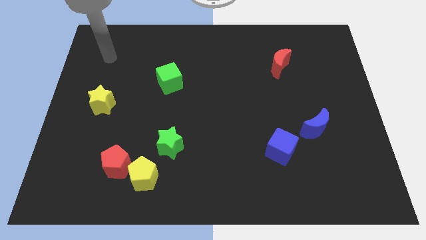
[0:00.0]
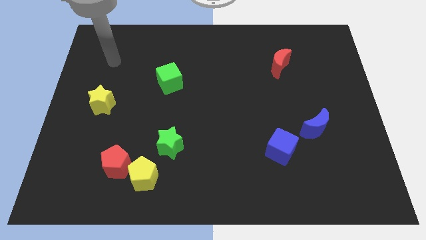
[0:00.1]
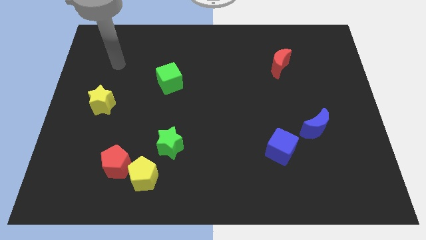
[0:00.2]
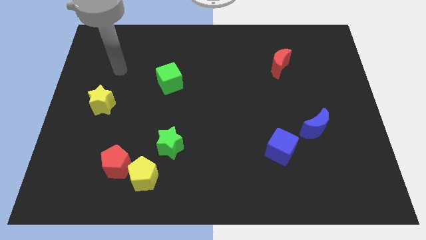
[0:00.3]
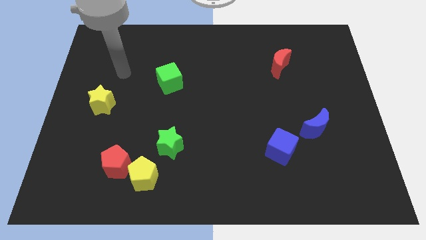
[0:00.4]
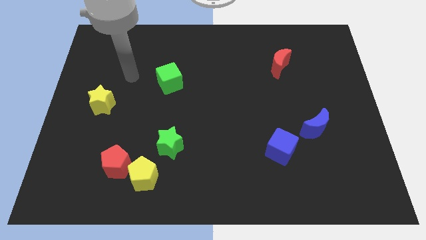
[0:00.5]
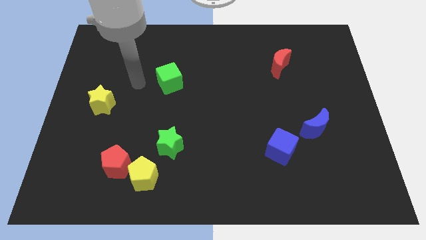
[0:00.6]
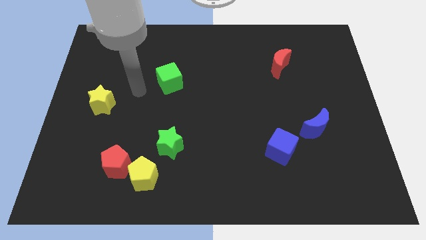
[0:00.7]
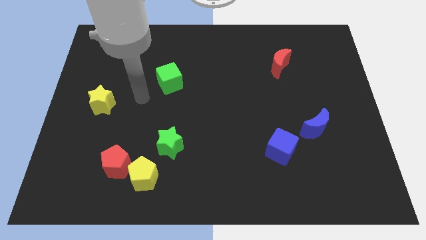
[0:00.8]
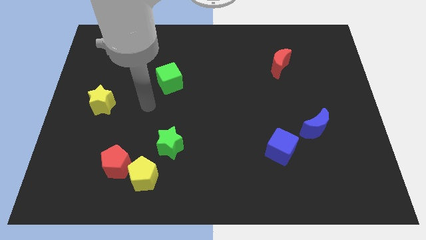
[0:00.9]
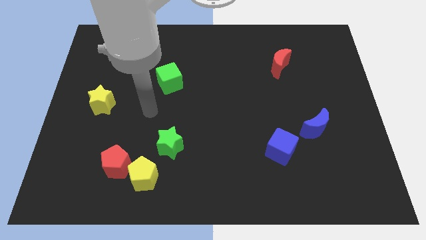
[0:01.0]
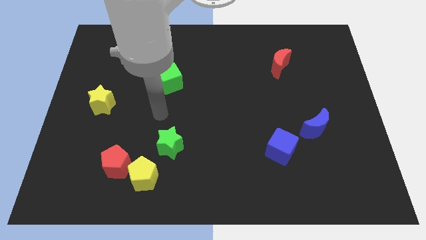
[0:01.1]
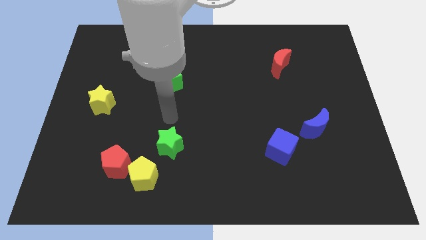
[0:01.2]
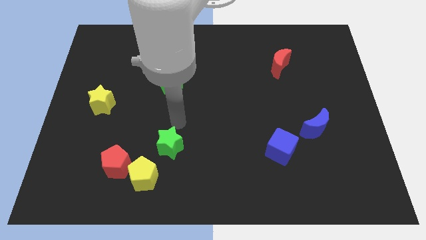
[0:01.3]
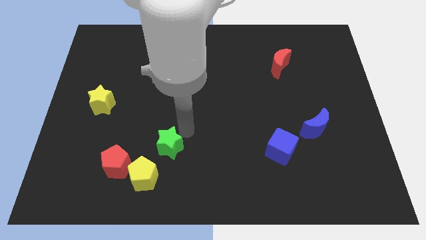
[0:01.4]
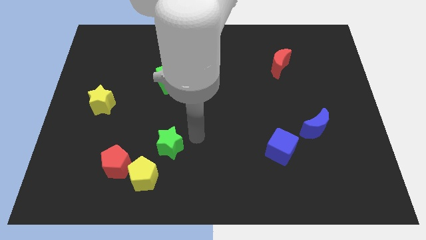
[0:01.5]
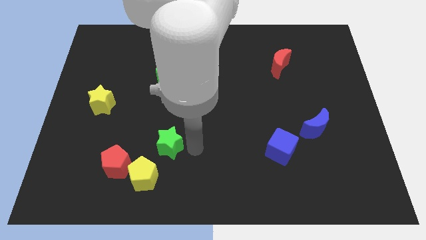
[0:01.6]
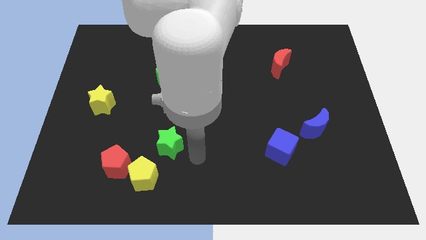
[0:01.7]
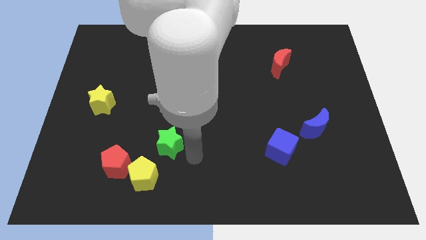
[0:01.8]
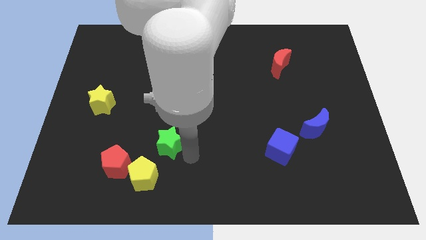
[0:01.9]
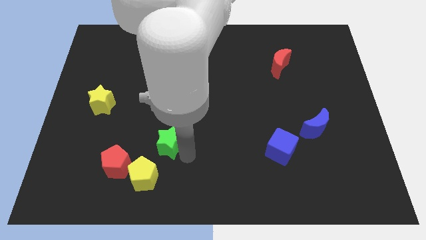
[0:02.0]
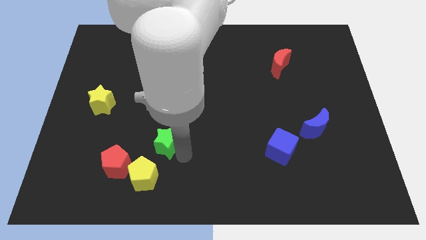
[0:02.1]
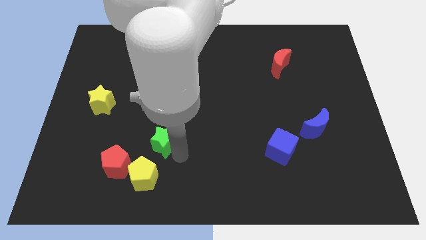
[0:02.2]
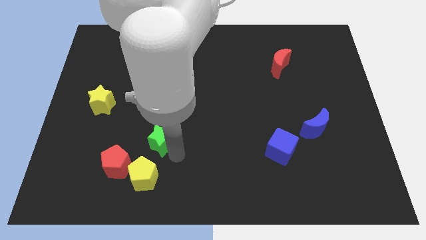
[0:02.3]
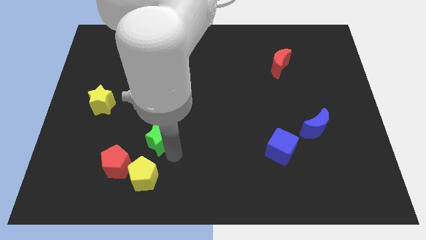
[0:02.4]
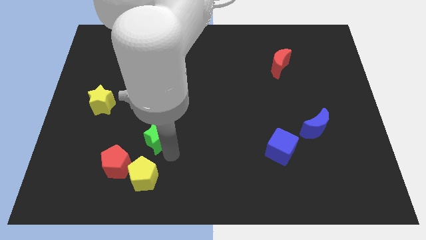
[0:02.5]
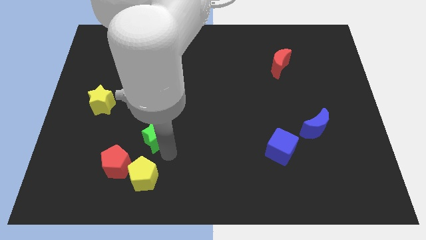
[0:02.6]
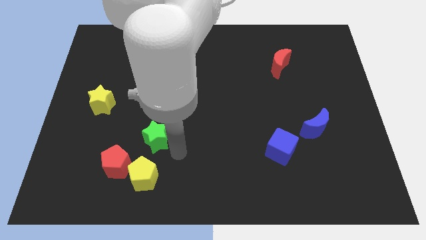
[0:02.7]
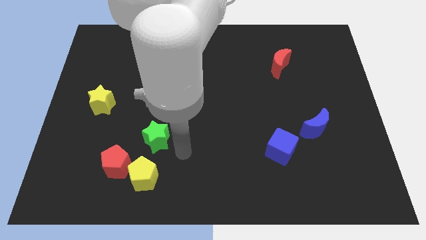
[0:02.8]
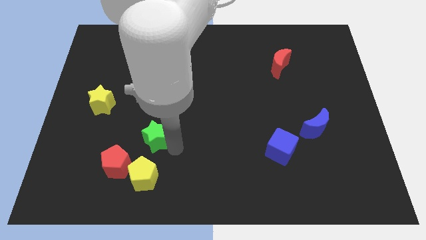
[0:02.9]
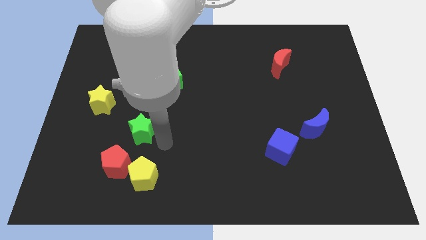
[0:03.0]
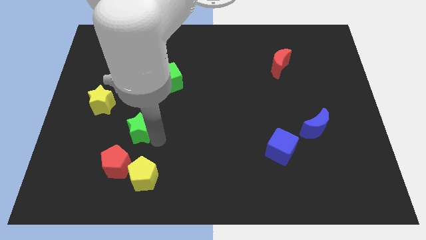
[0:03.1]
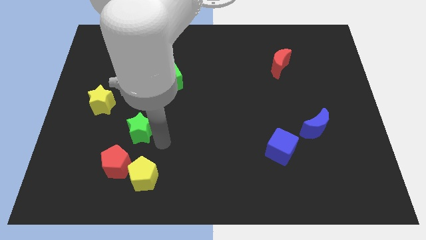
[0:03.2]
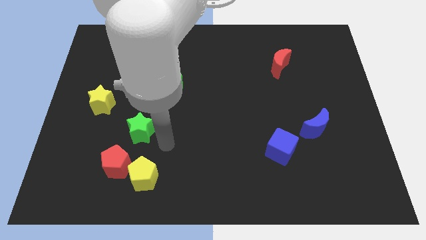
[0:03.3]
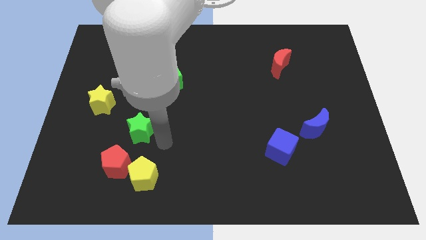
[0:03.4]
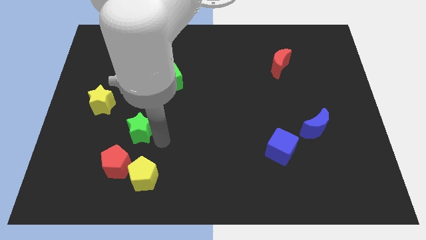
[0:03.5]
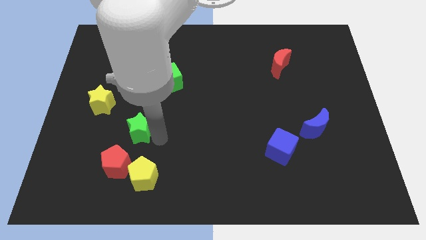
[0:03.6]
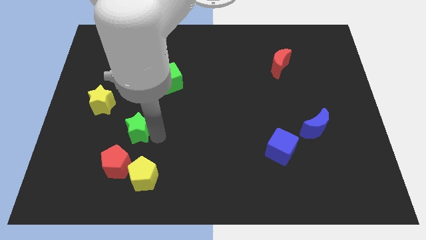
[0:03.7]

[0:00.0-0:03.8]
push the green star to the bottom right of the yellow star

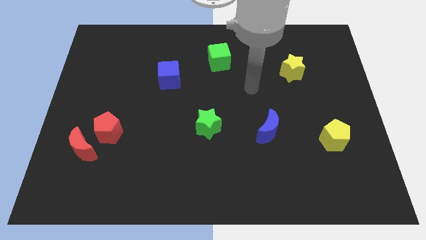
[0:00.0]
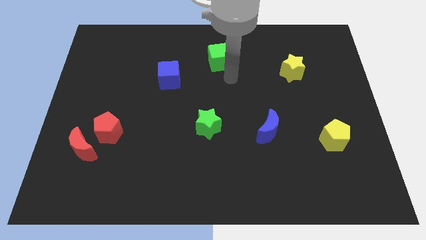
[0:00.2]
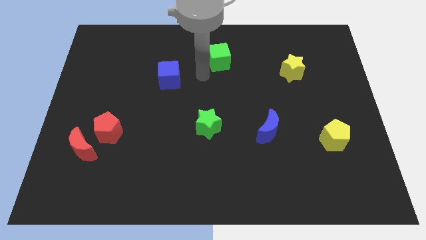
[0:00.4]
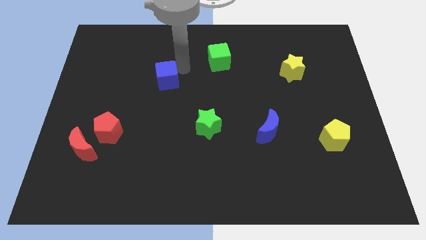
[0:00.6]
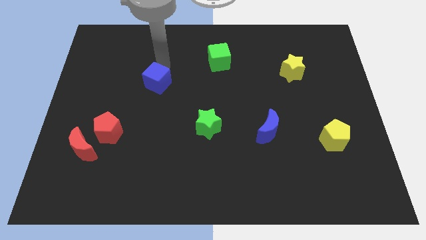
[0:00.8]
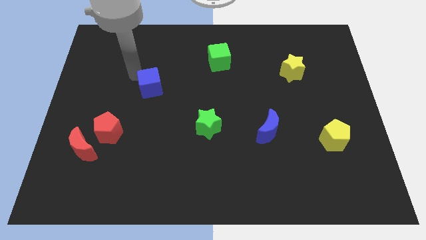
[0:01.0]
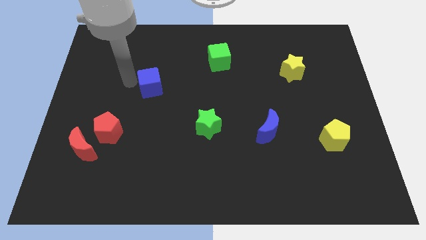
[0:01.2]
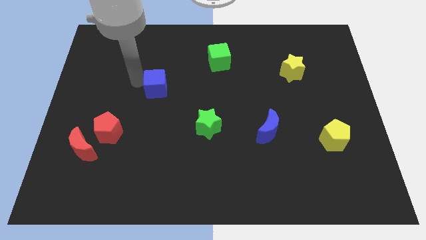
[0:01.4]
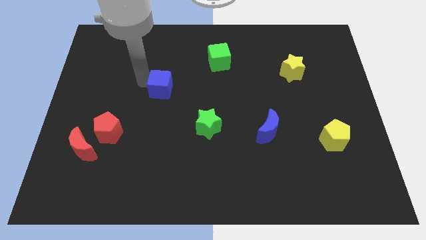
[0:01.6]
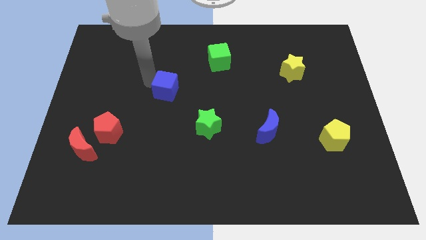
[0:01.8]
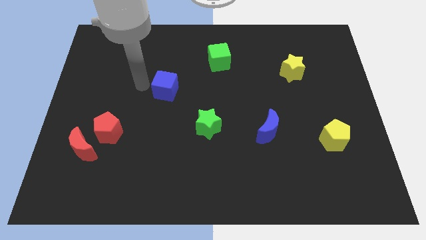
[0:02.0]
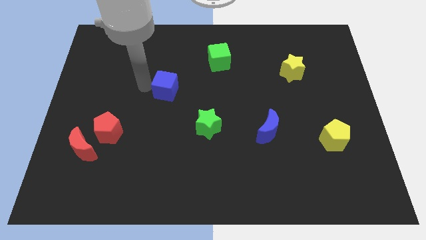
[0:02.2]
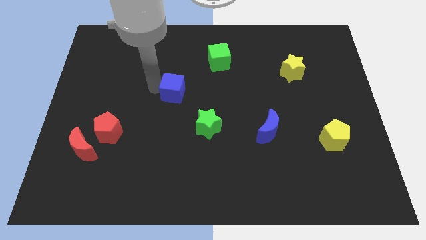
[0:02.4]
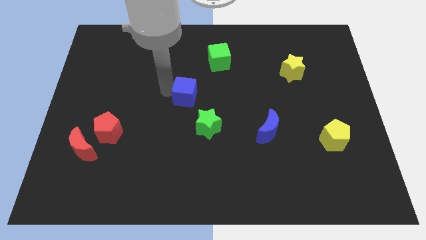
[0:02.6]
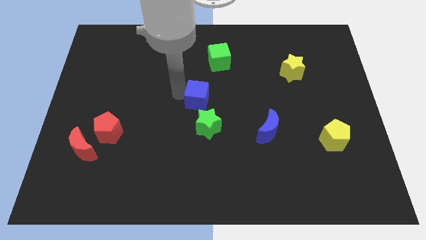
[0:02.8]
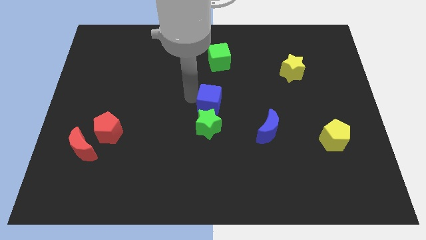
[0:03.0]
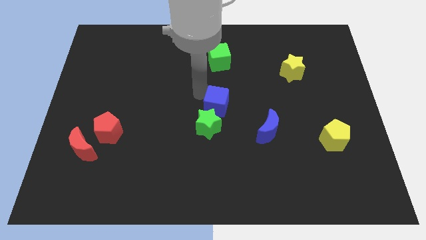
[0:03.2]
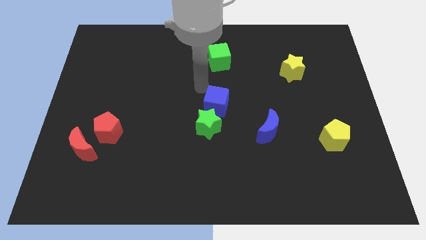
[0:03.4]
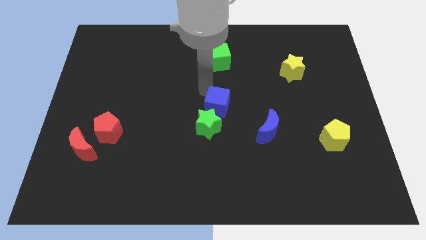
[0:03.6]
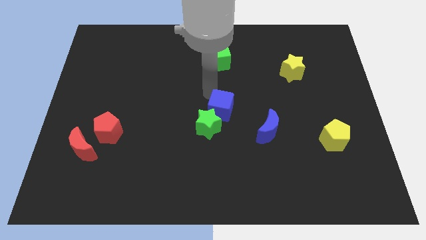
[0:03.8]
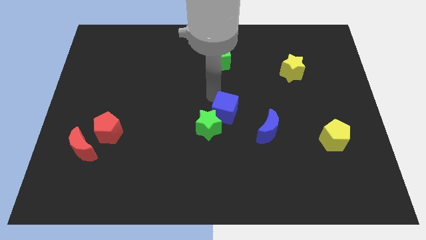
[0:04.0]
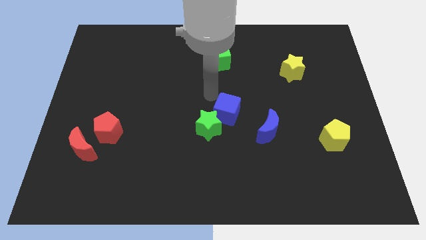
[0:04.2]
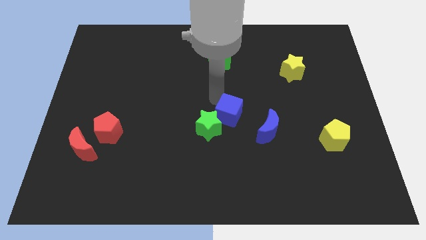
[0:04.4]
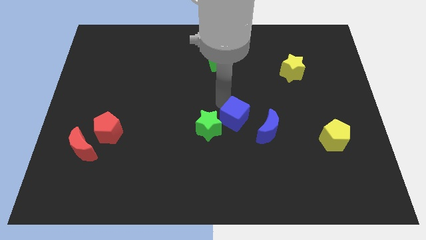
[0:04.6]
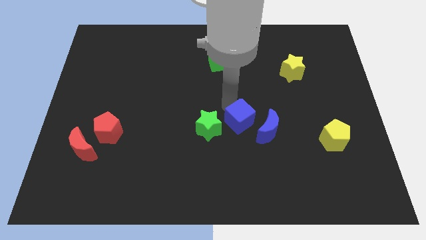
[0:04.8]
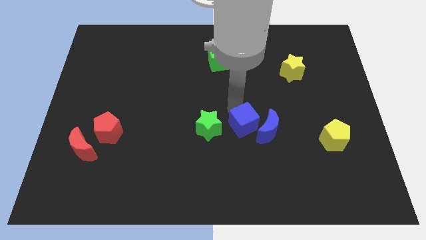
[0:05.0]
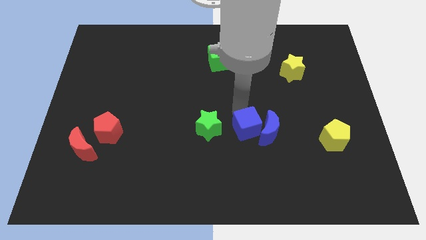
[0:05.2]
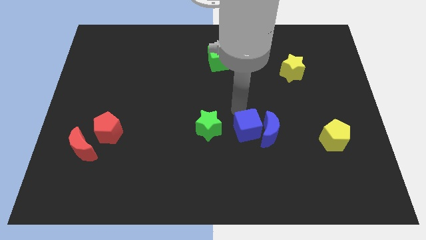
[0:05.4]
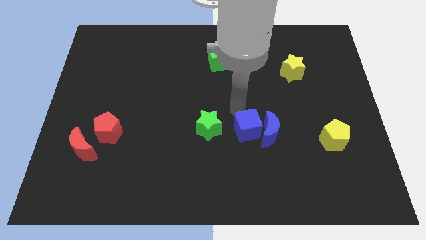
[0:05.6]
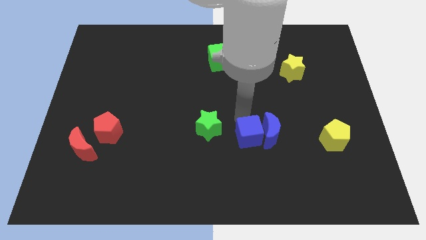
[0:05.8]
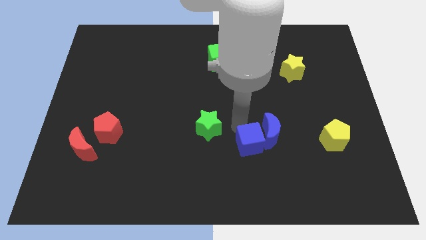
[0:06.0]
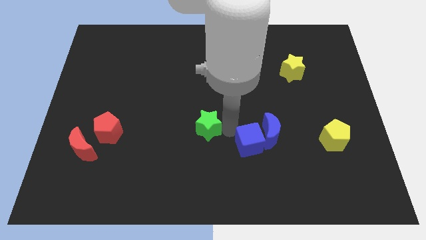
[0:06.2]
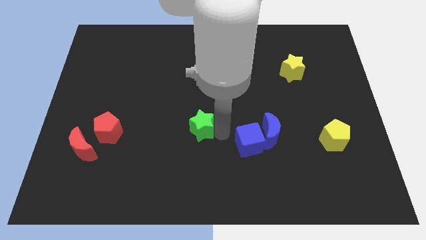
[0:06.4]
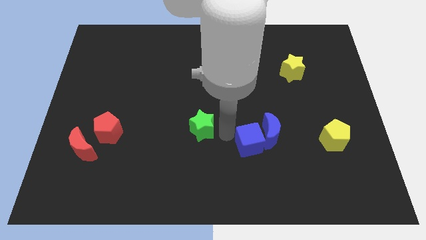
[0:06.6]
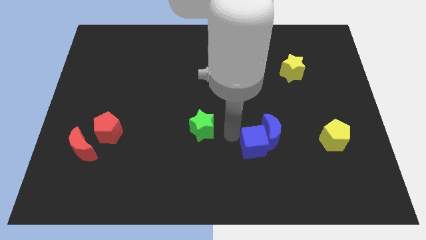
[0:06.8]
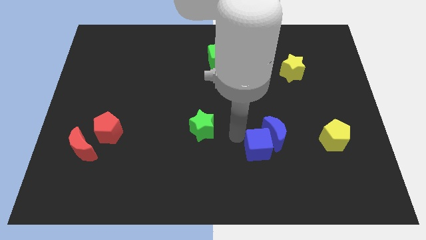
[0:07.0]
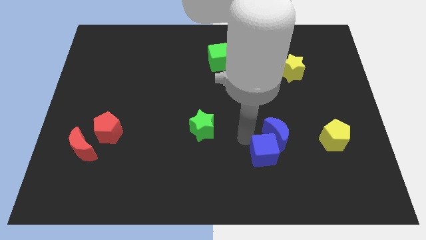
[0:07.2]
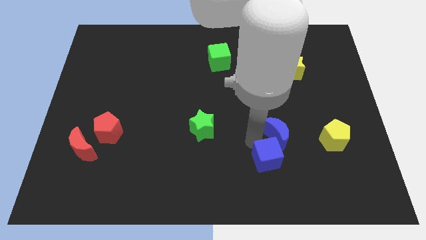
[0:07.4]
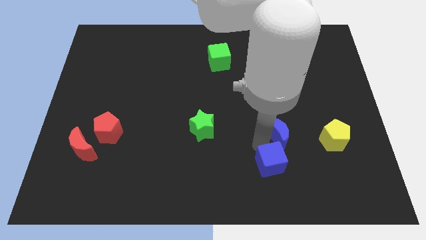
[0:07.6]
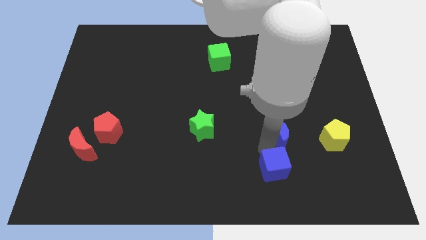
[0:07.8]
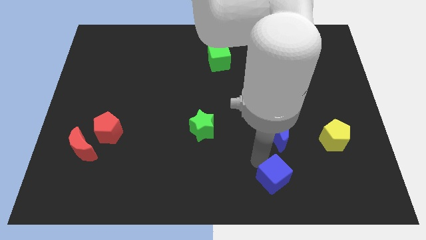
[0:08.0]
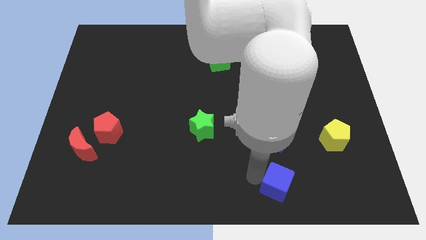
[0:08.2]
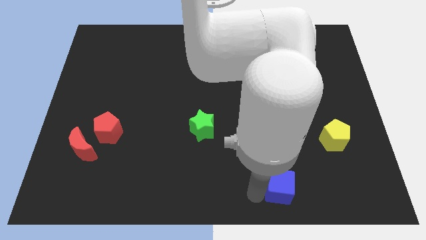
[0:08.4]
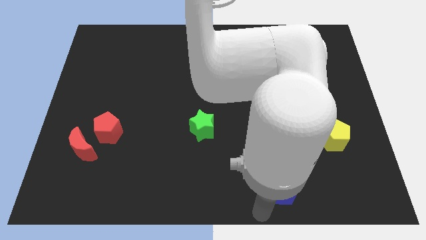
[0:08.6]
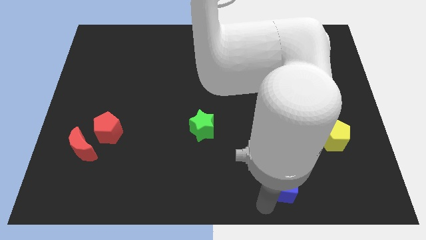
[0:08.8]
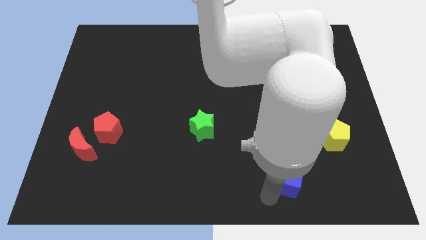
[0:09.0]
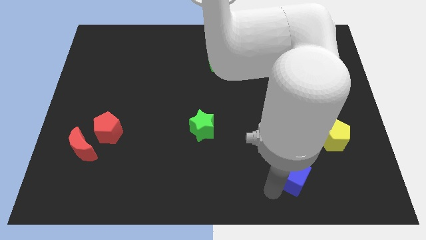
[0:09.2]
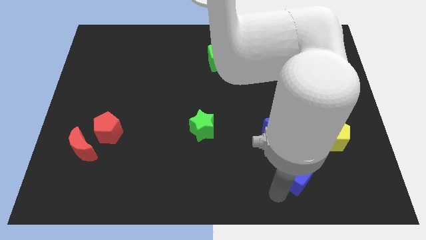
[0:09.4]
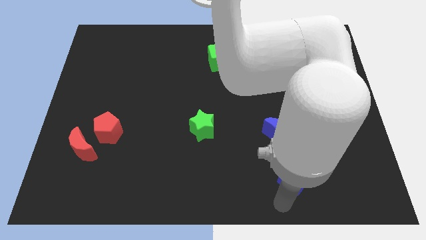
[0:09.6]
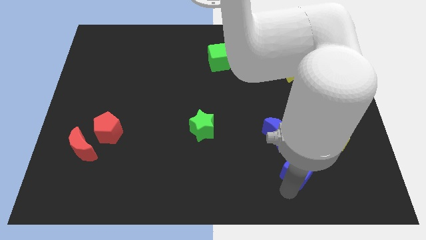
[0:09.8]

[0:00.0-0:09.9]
push the blue cube to the bottom right side of the blue moon
